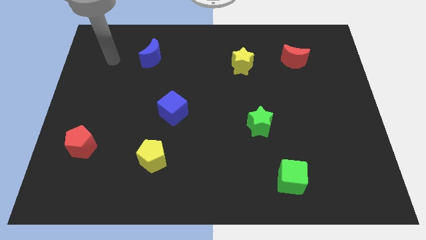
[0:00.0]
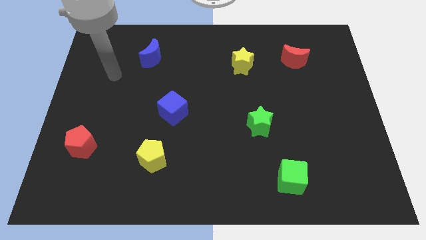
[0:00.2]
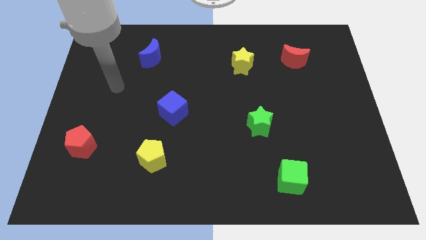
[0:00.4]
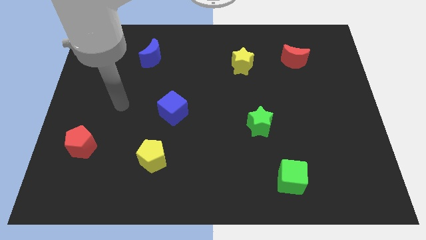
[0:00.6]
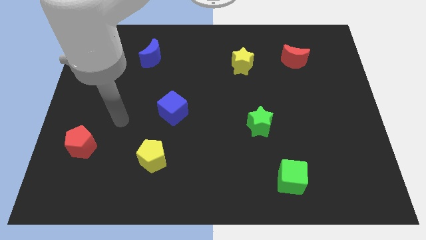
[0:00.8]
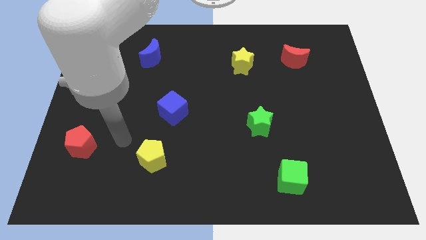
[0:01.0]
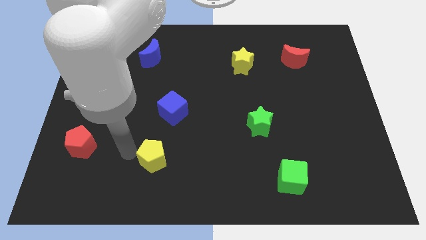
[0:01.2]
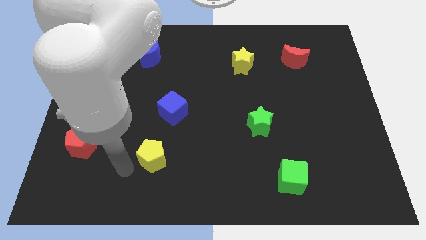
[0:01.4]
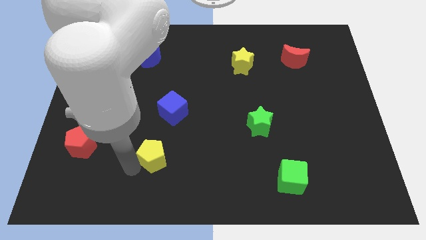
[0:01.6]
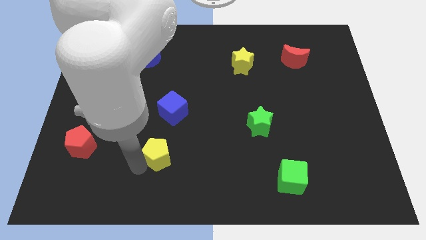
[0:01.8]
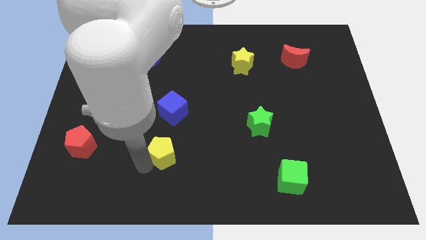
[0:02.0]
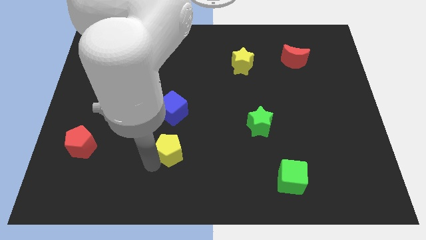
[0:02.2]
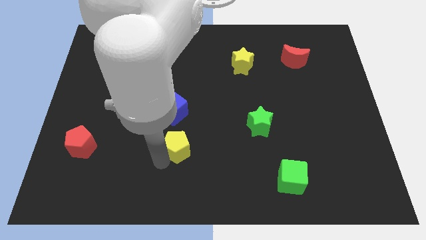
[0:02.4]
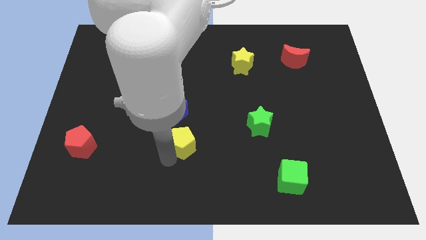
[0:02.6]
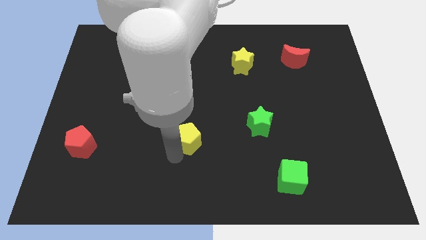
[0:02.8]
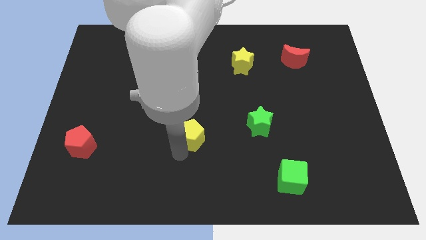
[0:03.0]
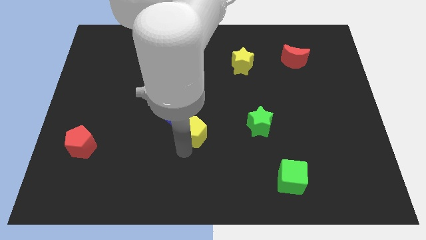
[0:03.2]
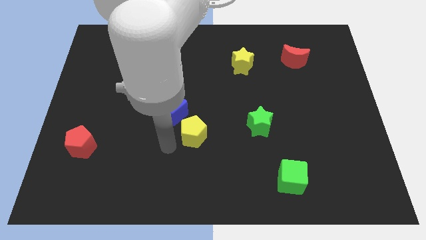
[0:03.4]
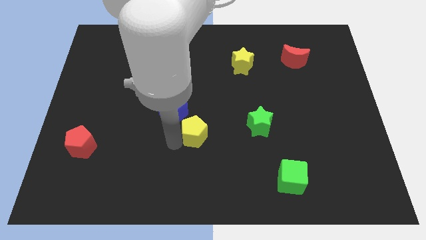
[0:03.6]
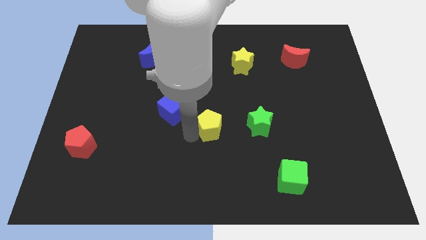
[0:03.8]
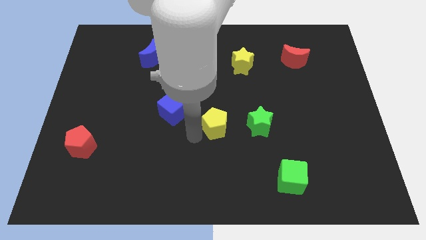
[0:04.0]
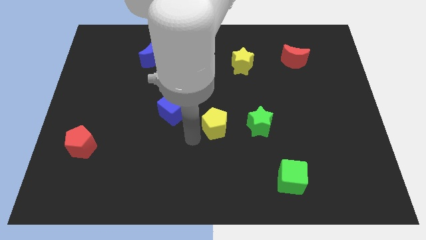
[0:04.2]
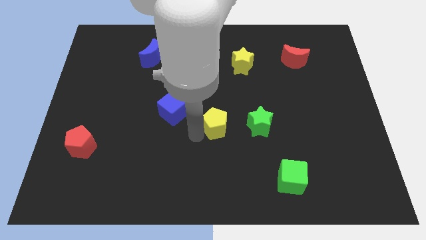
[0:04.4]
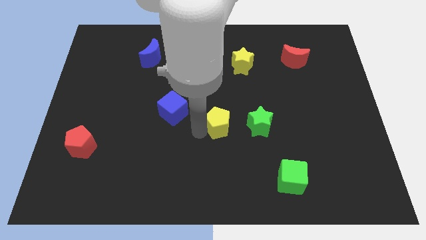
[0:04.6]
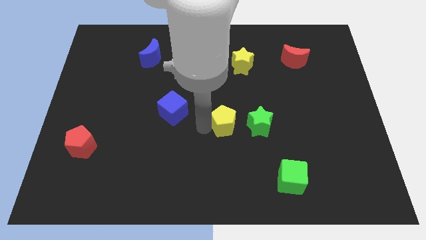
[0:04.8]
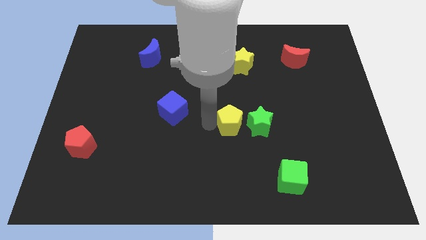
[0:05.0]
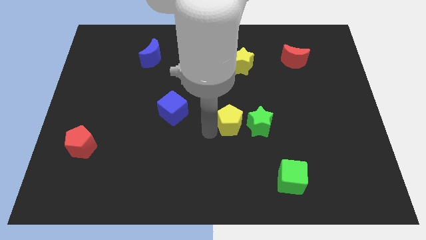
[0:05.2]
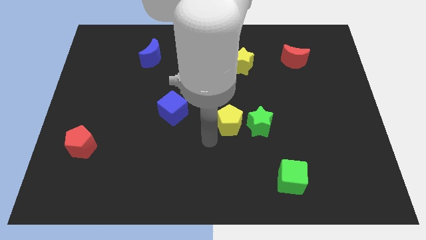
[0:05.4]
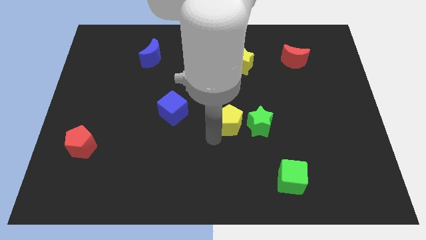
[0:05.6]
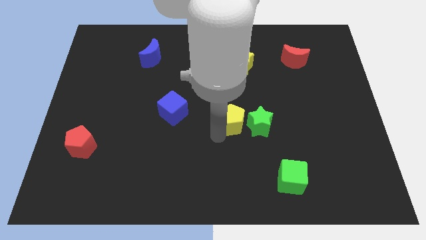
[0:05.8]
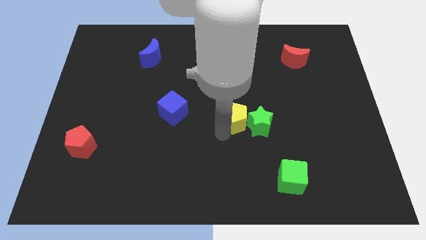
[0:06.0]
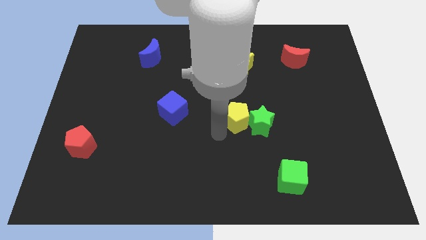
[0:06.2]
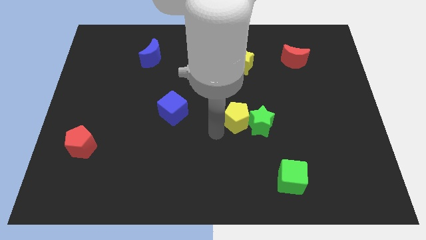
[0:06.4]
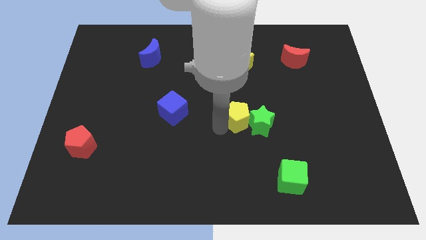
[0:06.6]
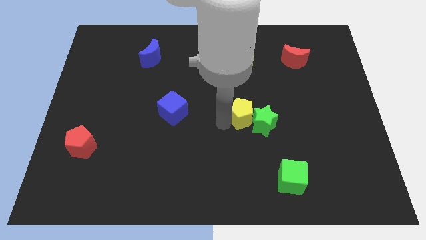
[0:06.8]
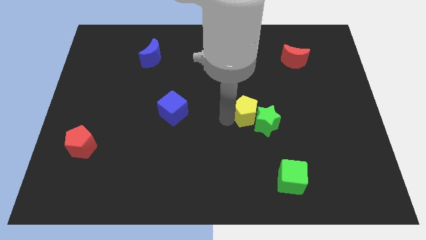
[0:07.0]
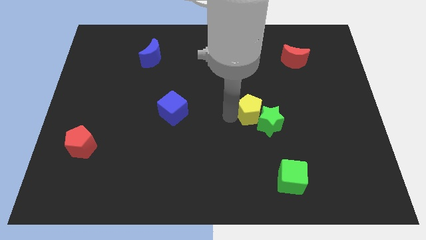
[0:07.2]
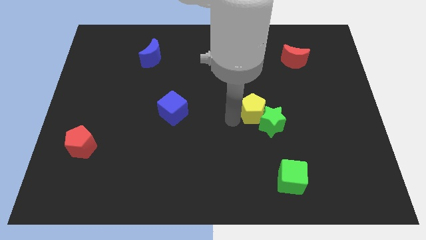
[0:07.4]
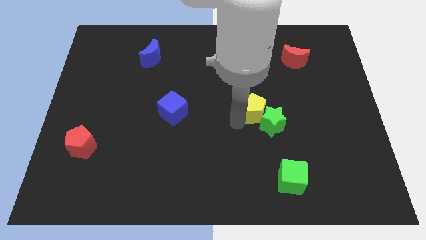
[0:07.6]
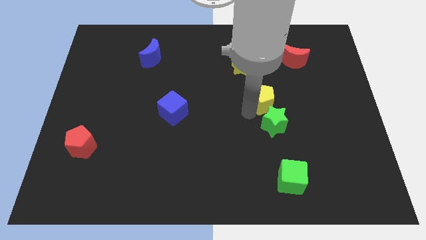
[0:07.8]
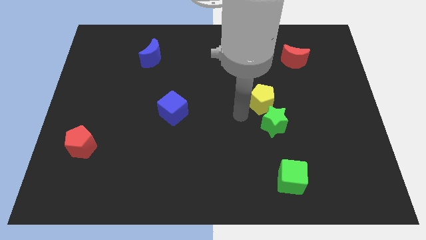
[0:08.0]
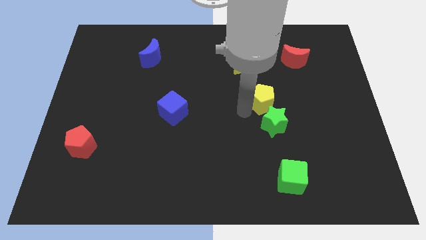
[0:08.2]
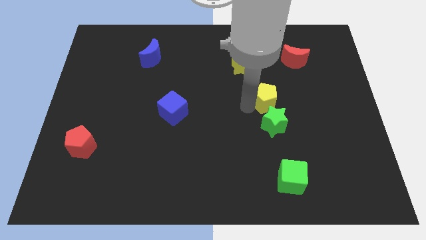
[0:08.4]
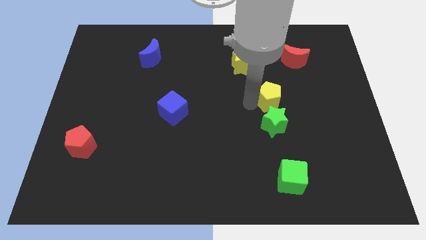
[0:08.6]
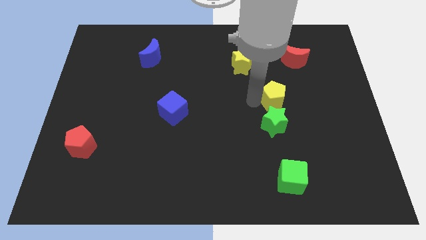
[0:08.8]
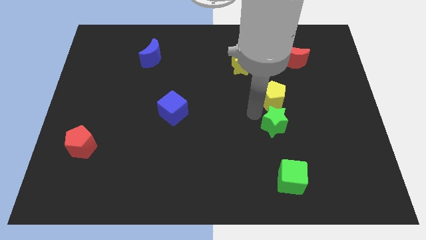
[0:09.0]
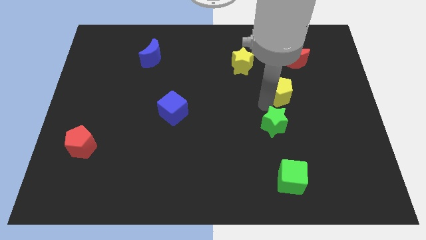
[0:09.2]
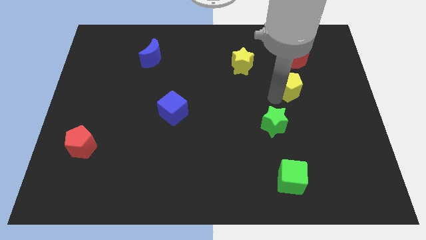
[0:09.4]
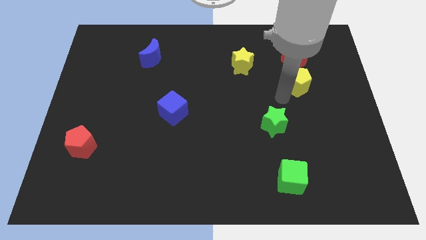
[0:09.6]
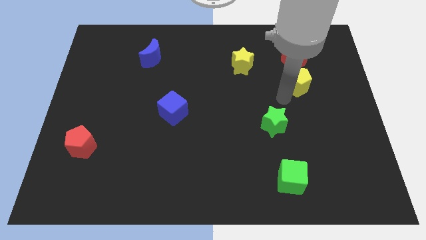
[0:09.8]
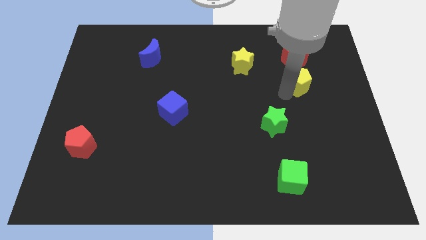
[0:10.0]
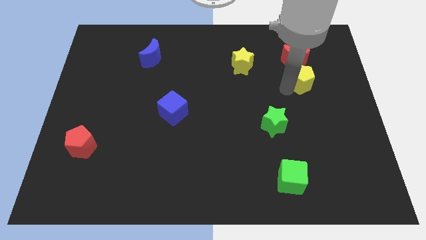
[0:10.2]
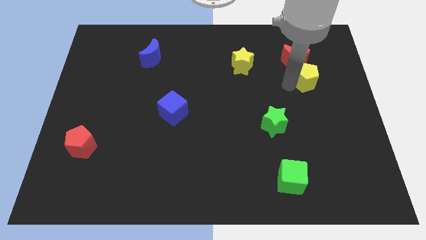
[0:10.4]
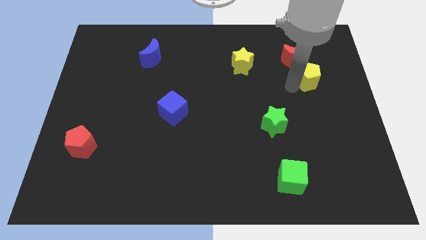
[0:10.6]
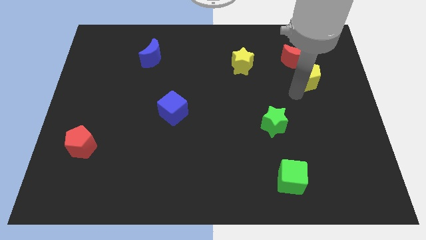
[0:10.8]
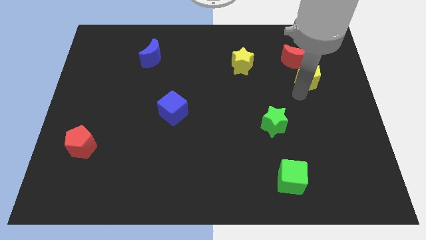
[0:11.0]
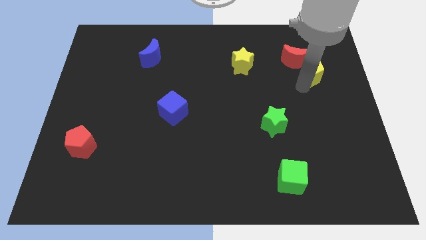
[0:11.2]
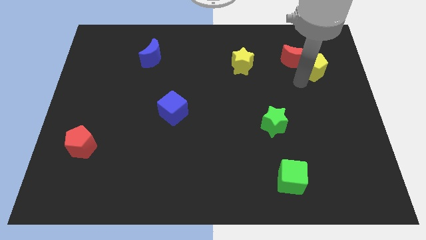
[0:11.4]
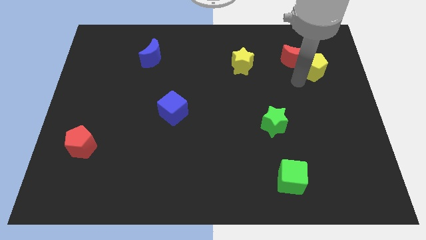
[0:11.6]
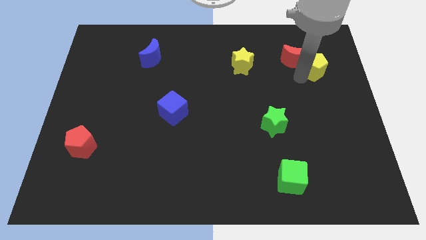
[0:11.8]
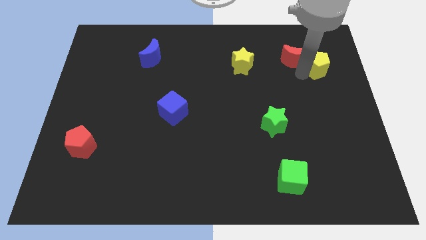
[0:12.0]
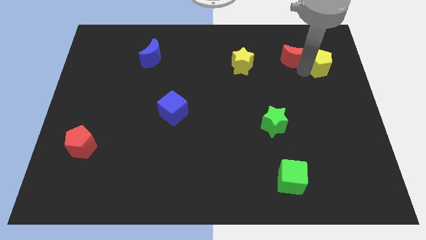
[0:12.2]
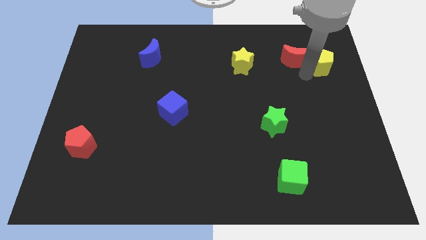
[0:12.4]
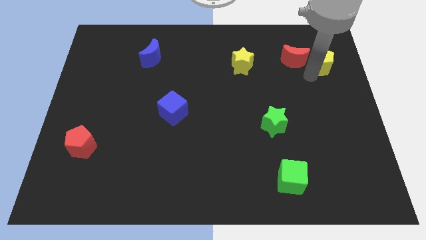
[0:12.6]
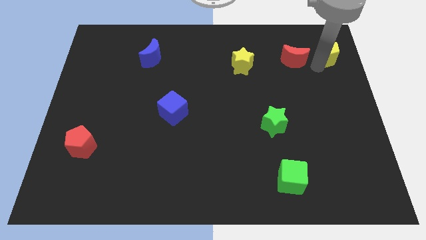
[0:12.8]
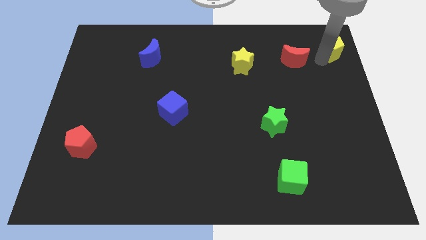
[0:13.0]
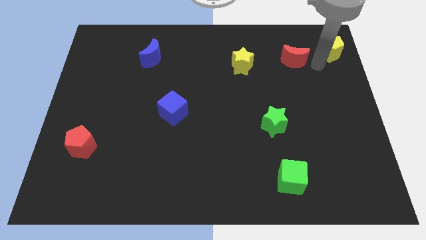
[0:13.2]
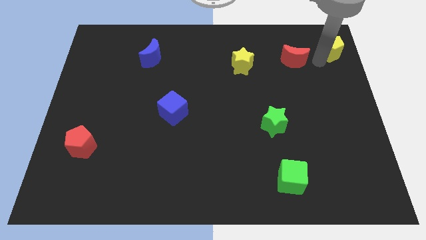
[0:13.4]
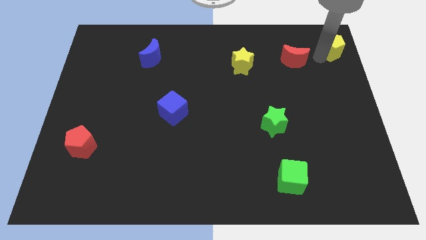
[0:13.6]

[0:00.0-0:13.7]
move the yellow pentagon to the top right corner

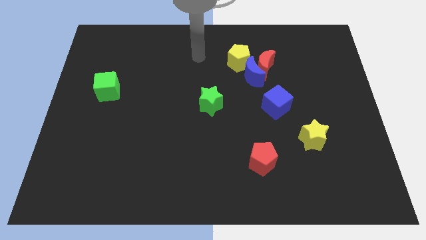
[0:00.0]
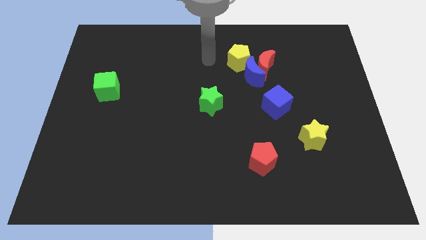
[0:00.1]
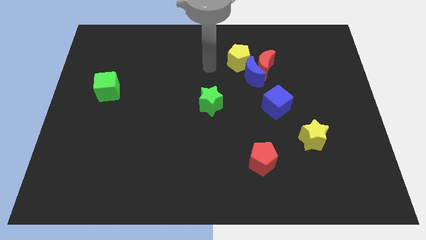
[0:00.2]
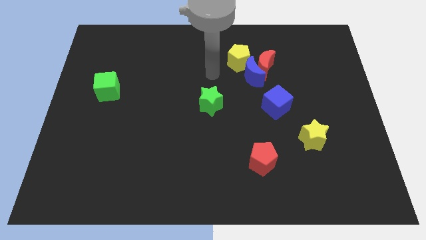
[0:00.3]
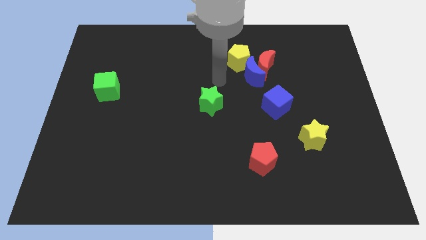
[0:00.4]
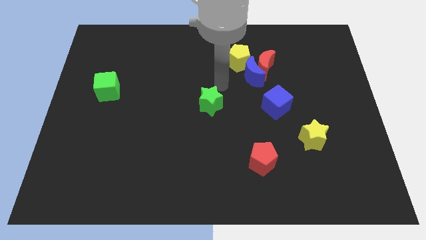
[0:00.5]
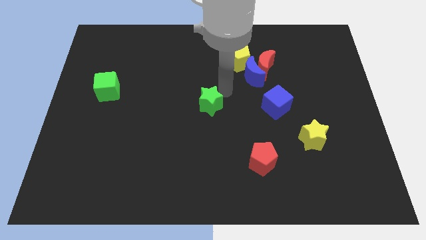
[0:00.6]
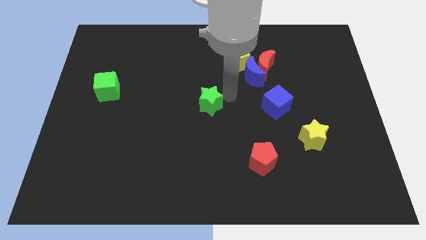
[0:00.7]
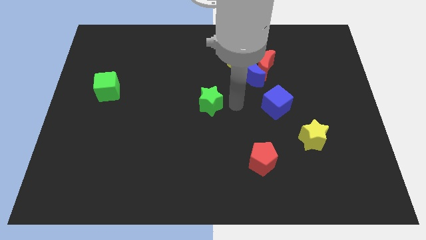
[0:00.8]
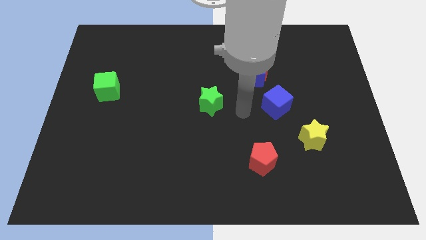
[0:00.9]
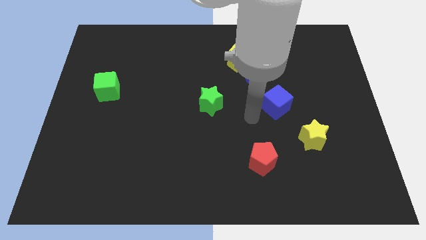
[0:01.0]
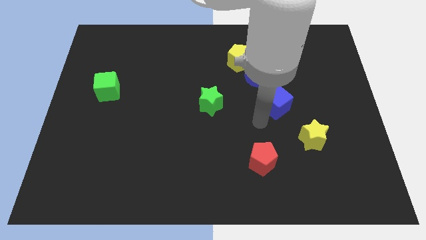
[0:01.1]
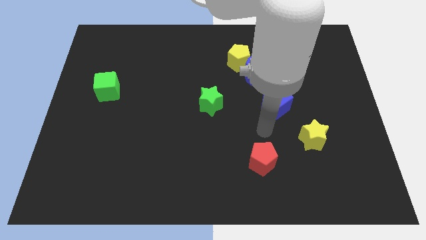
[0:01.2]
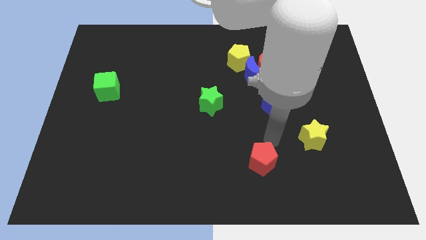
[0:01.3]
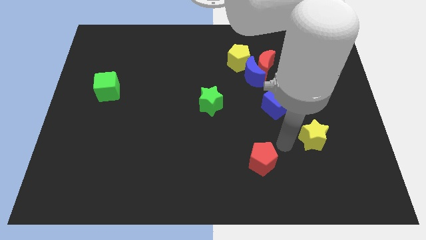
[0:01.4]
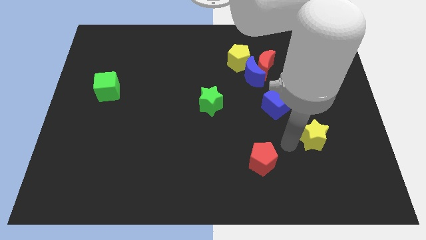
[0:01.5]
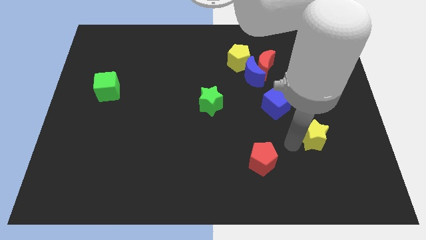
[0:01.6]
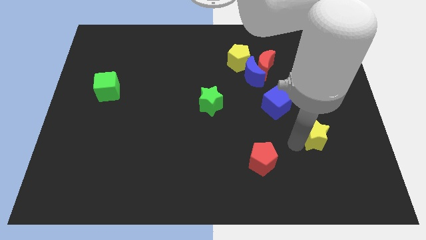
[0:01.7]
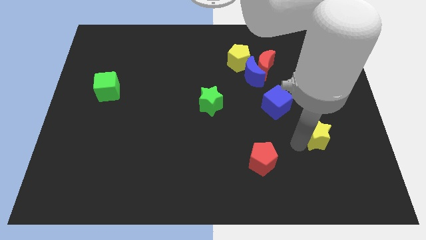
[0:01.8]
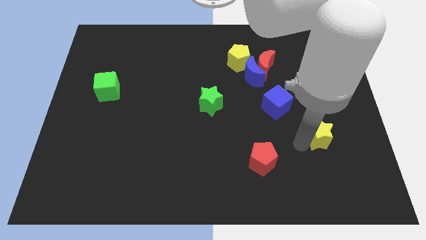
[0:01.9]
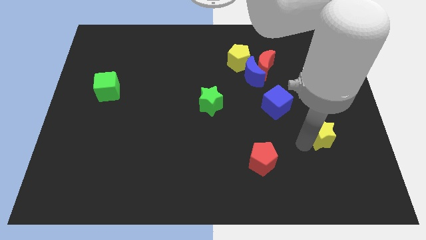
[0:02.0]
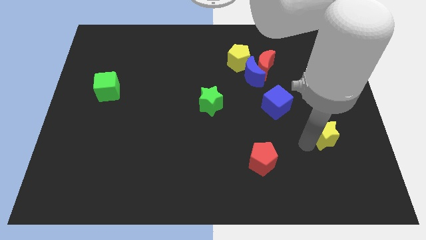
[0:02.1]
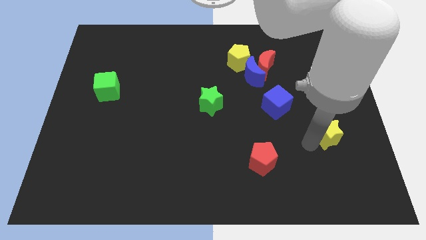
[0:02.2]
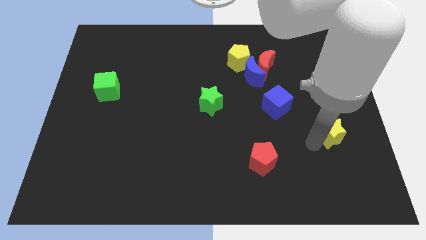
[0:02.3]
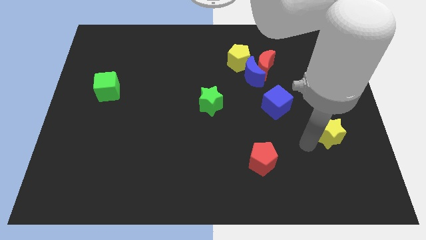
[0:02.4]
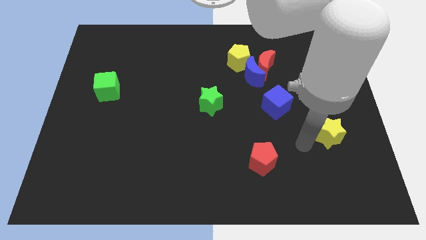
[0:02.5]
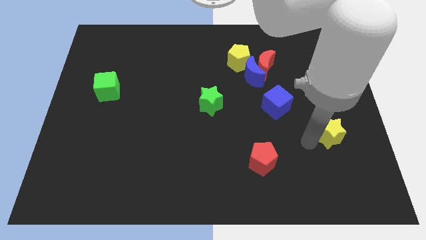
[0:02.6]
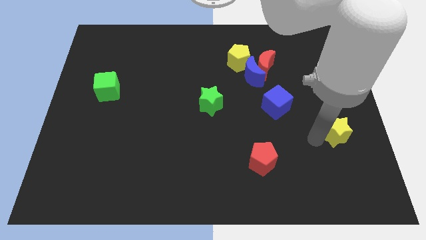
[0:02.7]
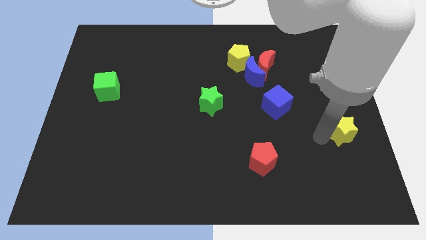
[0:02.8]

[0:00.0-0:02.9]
push the yellow star to the right side of the board
